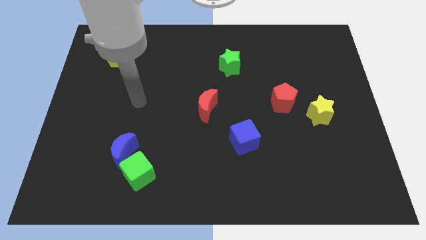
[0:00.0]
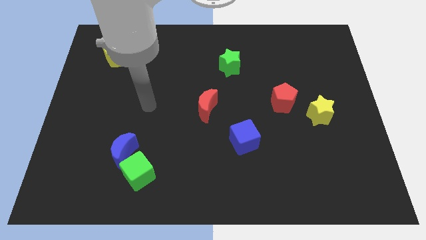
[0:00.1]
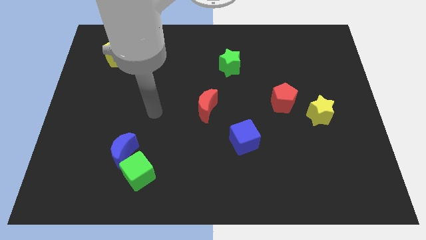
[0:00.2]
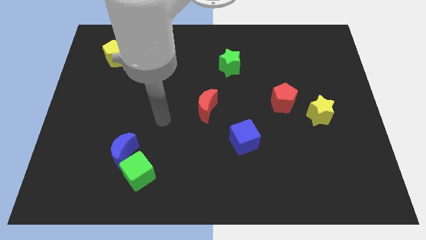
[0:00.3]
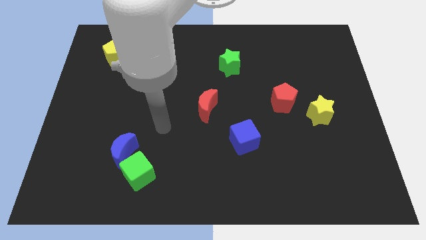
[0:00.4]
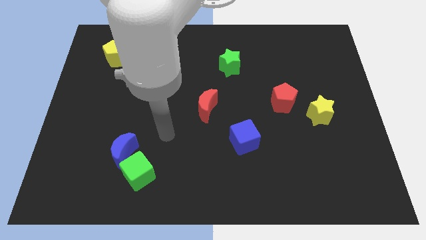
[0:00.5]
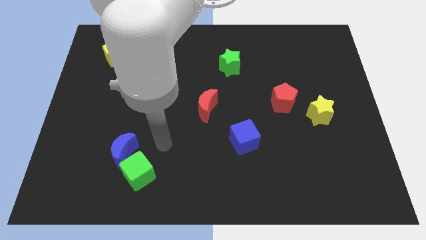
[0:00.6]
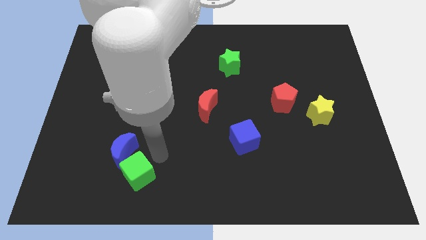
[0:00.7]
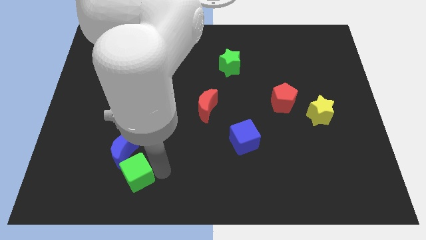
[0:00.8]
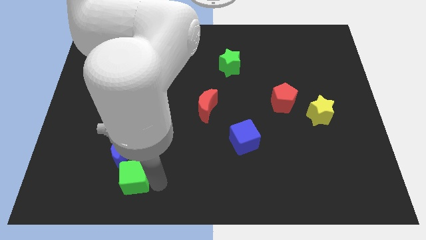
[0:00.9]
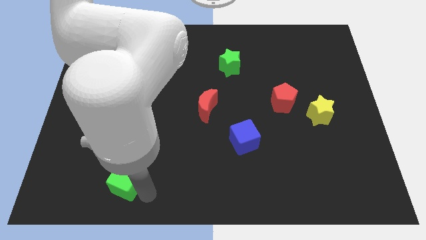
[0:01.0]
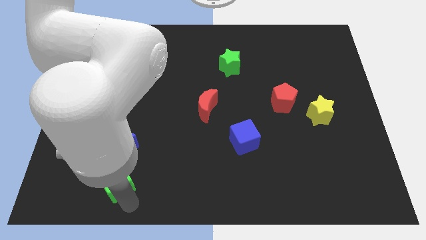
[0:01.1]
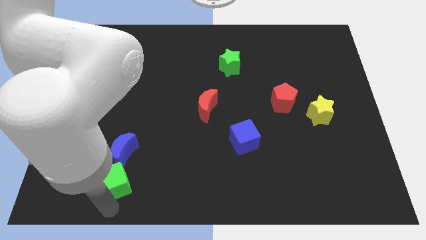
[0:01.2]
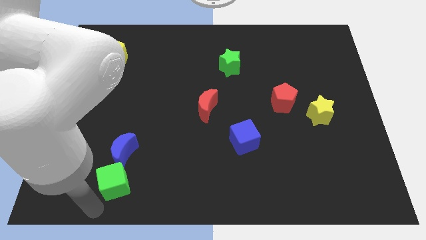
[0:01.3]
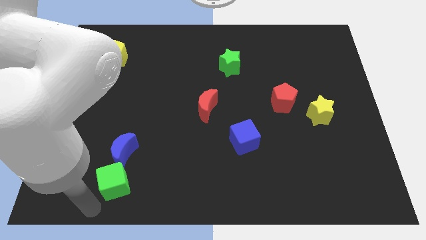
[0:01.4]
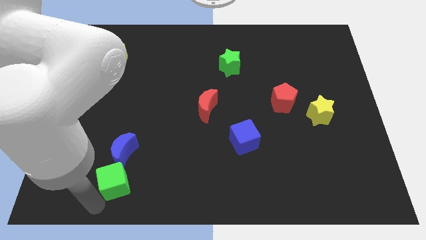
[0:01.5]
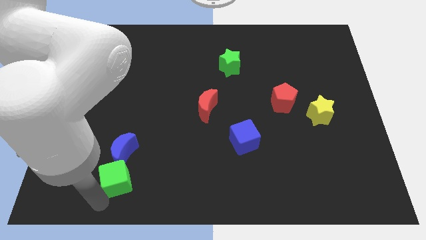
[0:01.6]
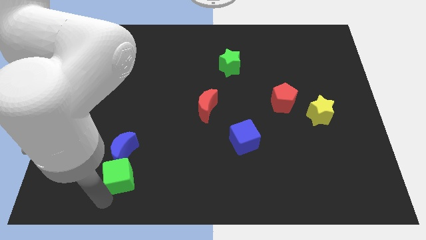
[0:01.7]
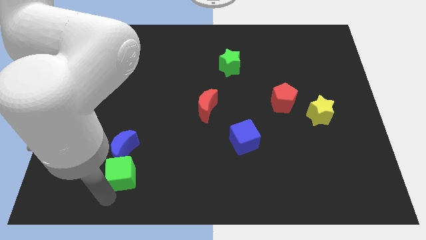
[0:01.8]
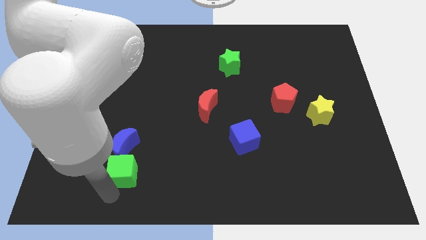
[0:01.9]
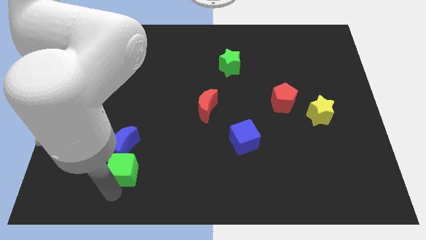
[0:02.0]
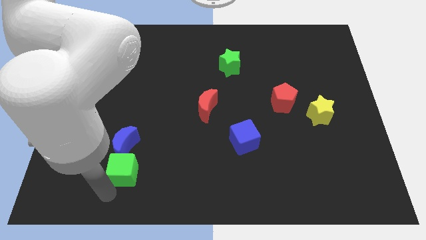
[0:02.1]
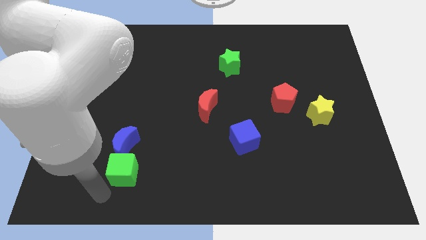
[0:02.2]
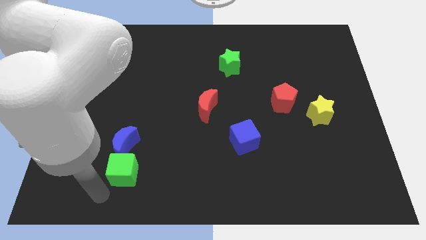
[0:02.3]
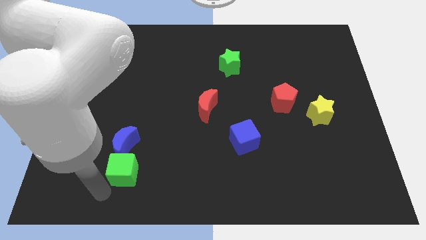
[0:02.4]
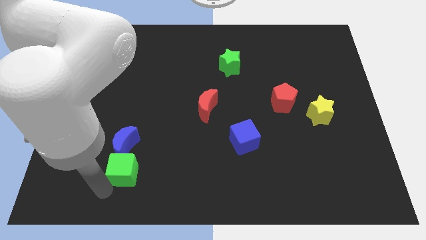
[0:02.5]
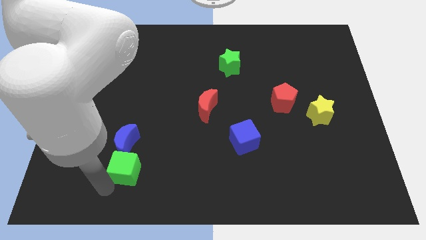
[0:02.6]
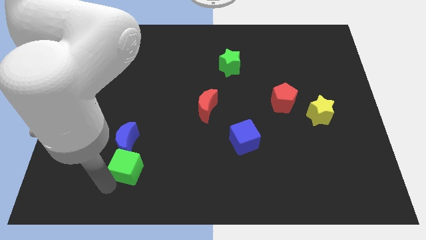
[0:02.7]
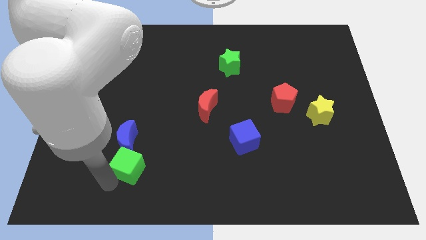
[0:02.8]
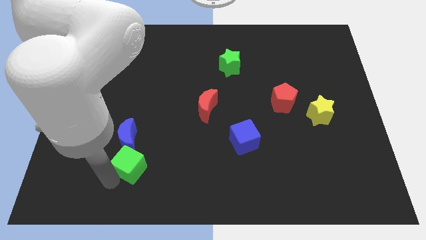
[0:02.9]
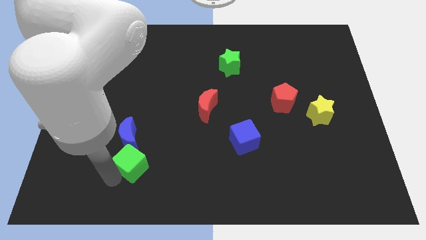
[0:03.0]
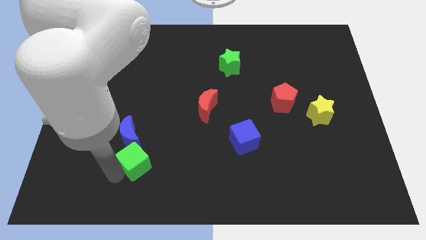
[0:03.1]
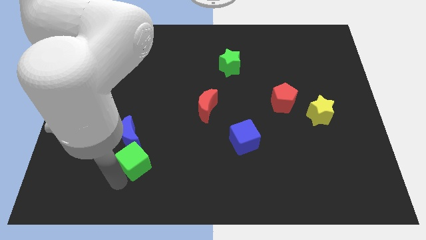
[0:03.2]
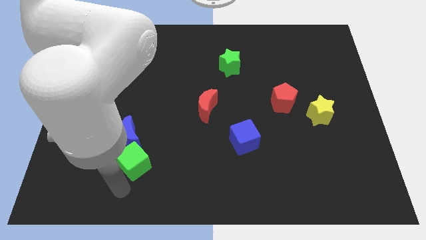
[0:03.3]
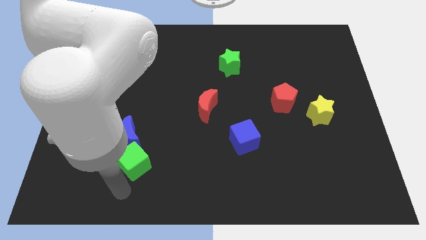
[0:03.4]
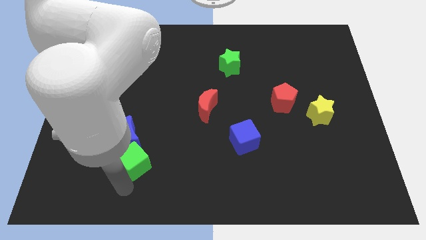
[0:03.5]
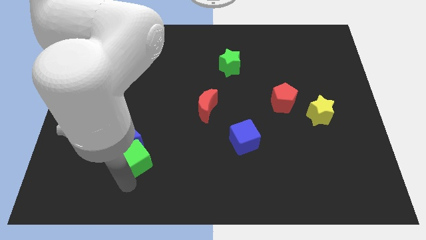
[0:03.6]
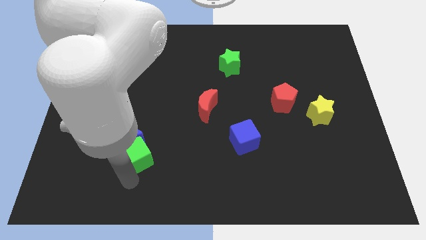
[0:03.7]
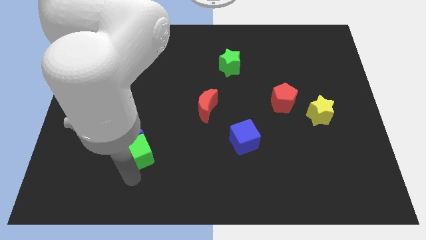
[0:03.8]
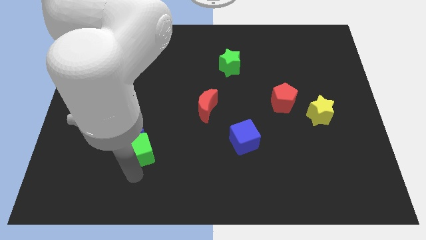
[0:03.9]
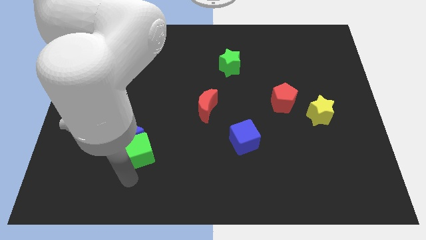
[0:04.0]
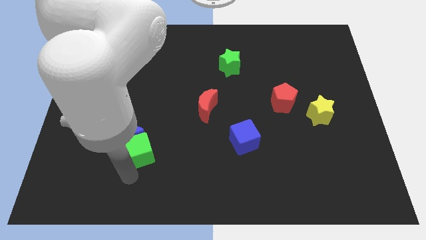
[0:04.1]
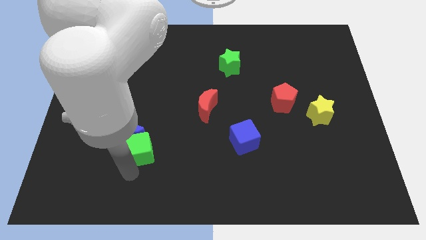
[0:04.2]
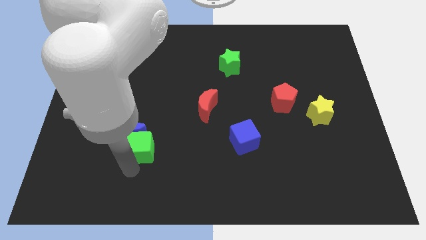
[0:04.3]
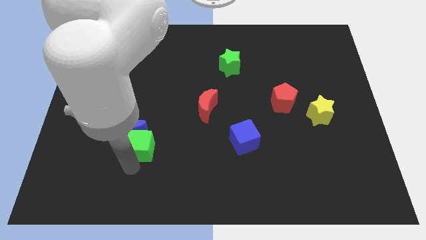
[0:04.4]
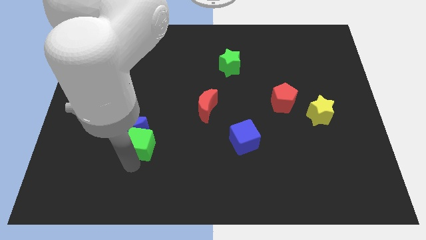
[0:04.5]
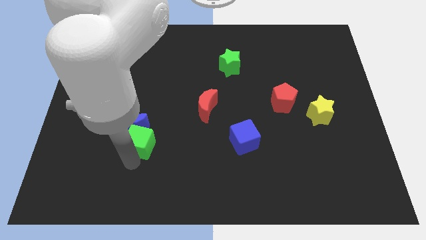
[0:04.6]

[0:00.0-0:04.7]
push the green cube upwards a little

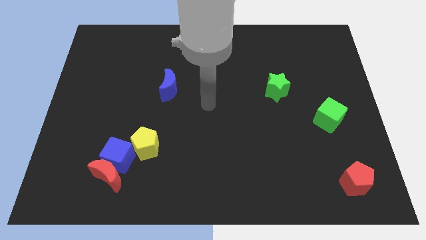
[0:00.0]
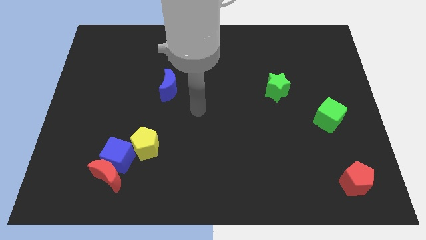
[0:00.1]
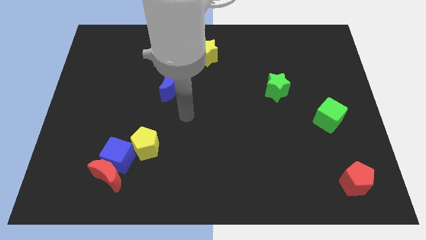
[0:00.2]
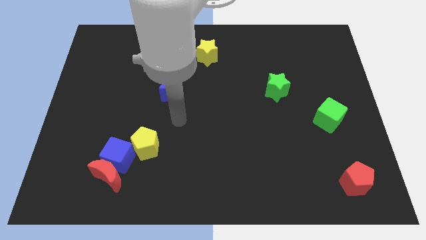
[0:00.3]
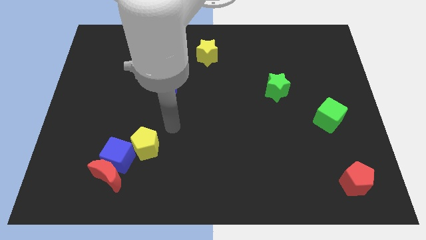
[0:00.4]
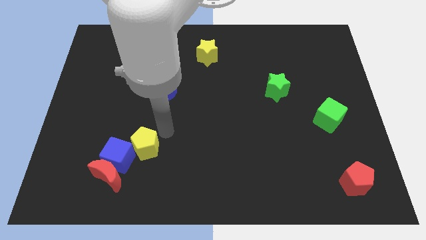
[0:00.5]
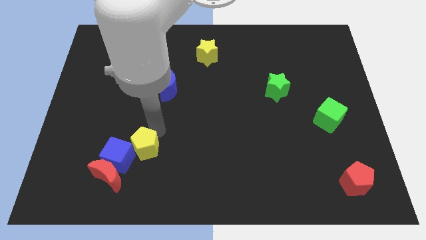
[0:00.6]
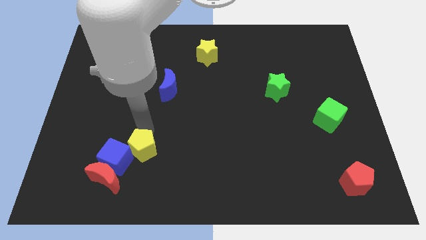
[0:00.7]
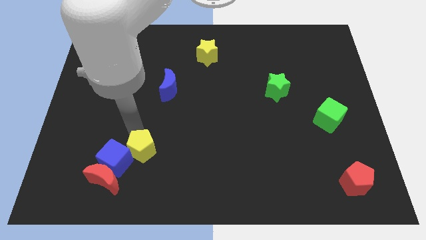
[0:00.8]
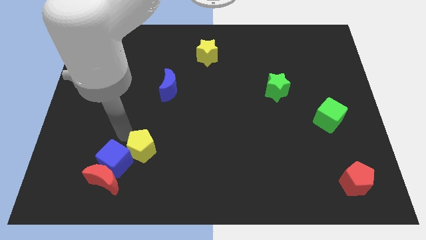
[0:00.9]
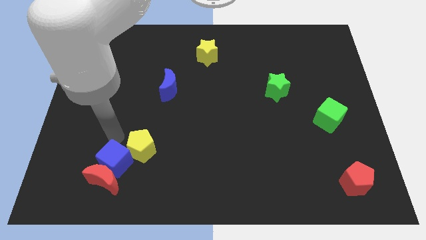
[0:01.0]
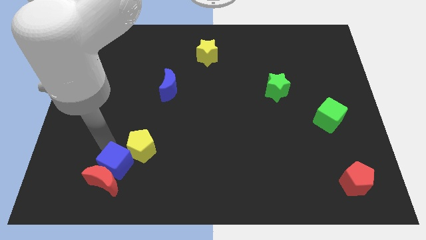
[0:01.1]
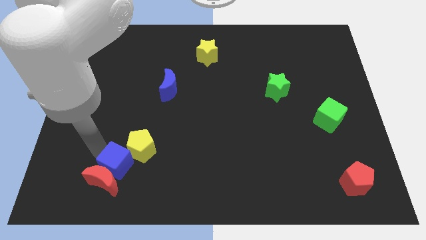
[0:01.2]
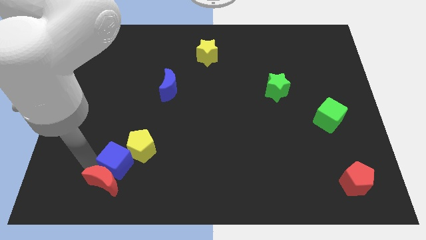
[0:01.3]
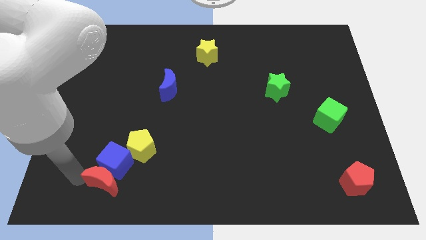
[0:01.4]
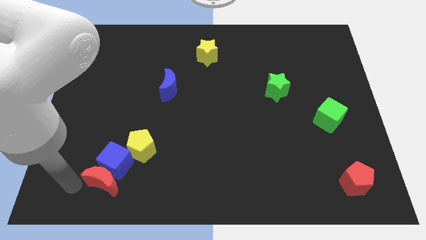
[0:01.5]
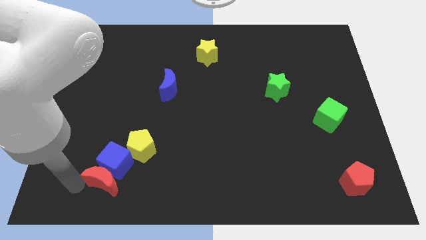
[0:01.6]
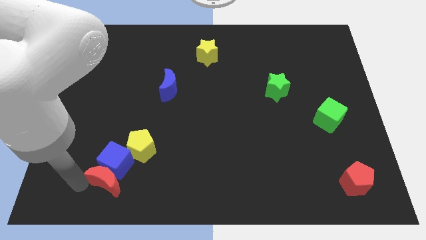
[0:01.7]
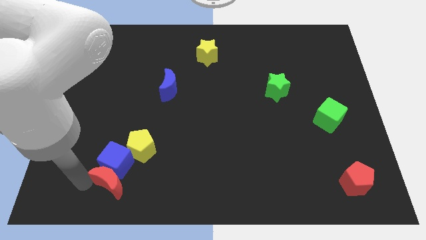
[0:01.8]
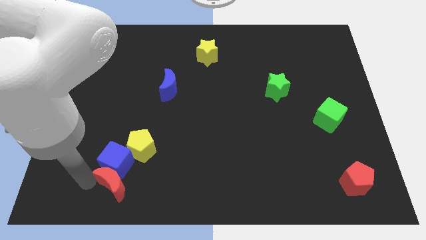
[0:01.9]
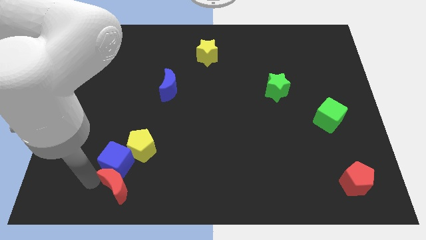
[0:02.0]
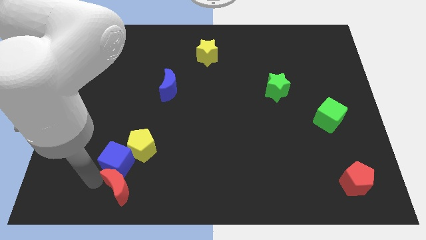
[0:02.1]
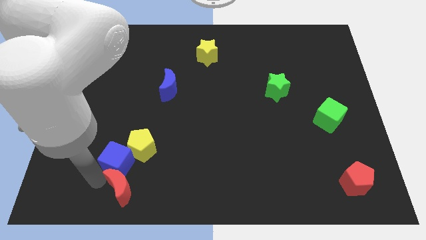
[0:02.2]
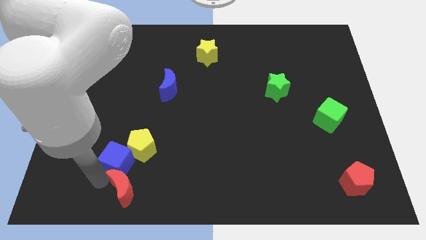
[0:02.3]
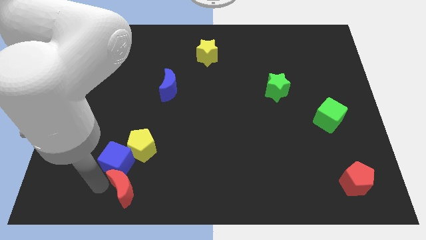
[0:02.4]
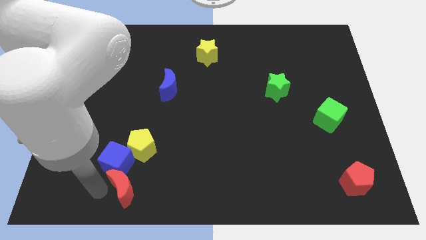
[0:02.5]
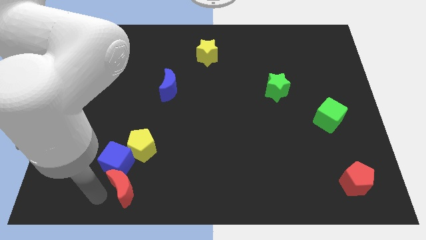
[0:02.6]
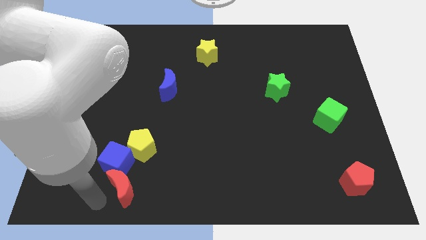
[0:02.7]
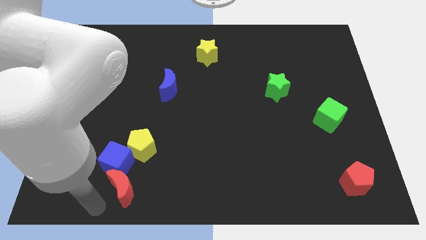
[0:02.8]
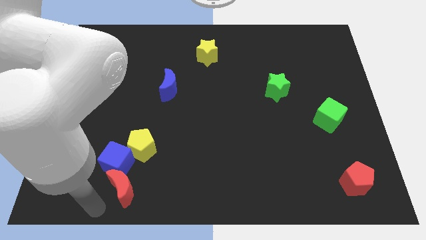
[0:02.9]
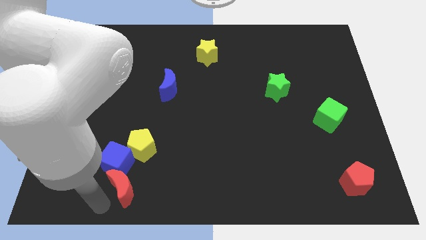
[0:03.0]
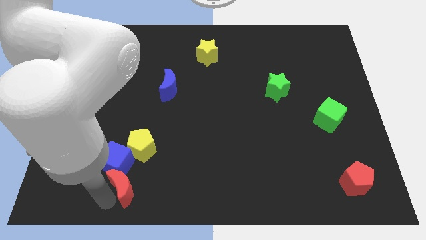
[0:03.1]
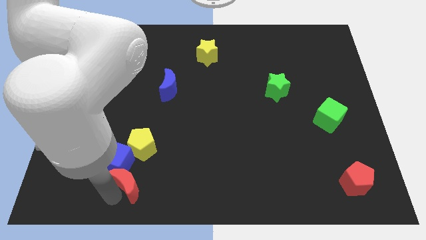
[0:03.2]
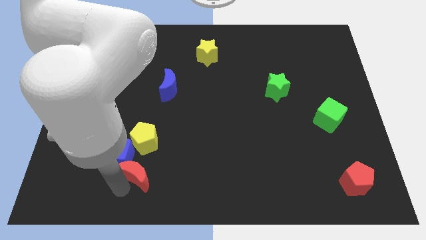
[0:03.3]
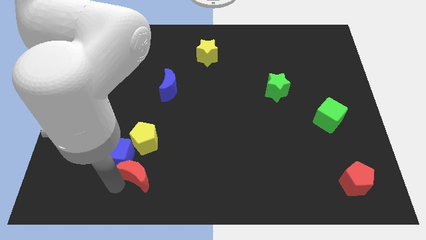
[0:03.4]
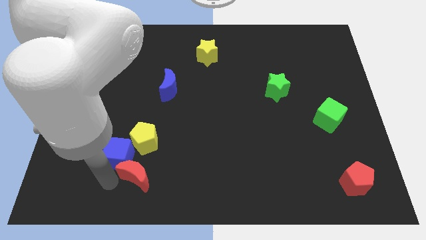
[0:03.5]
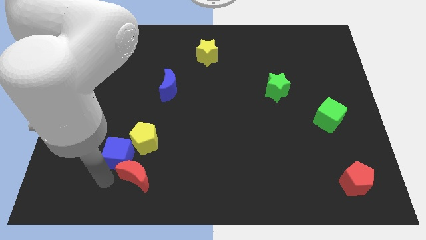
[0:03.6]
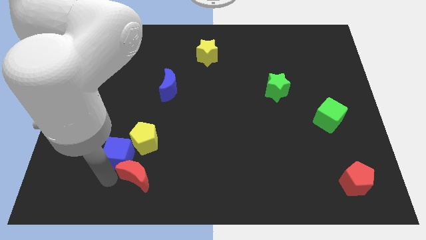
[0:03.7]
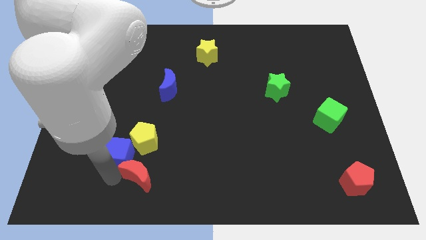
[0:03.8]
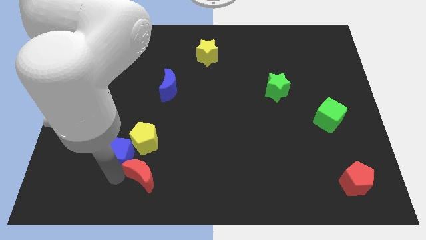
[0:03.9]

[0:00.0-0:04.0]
move the red moon slightly right
